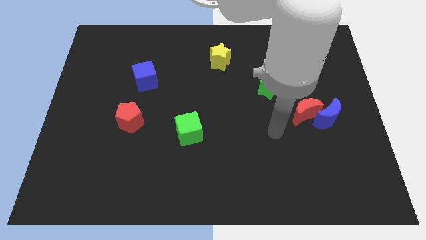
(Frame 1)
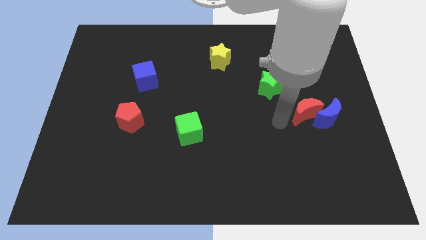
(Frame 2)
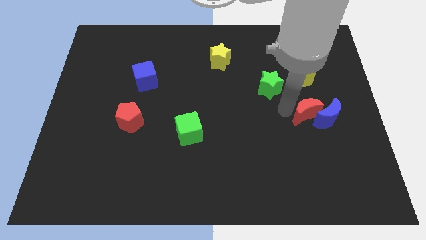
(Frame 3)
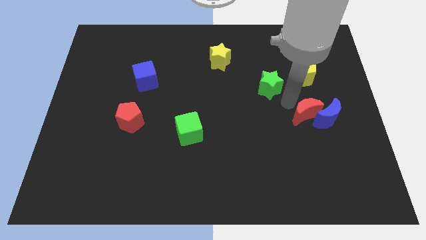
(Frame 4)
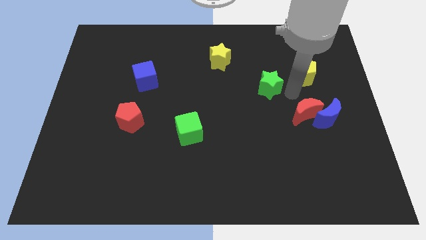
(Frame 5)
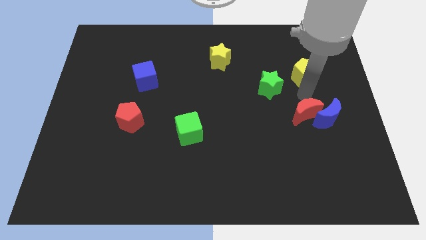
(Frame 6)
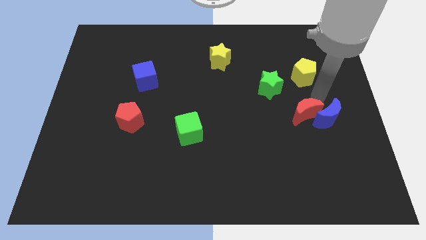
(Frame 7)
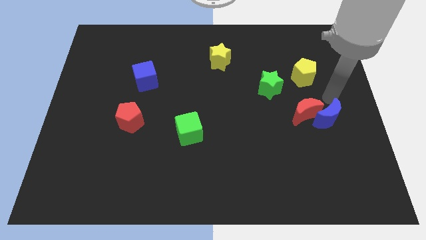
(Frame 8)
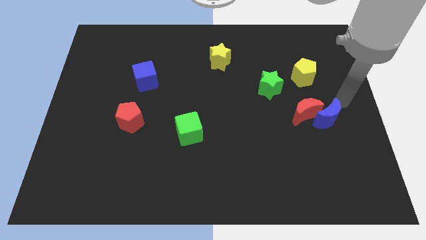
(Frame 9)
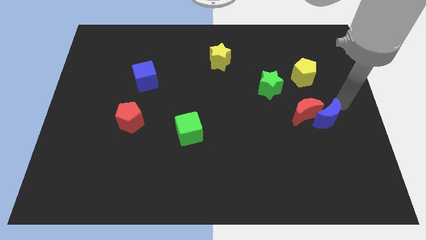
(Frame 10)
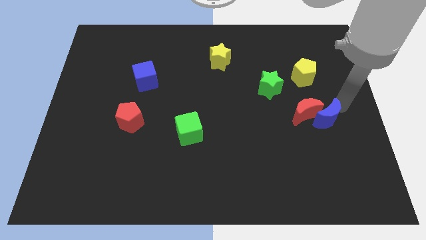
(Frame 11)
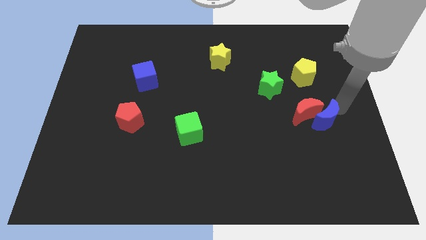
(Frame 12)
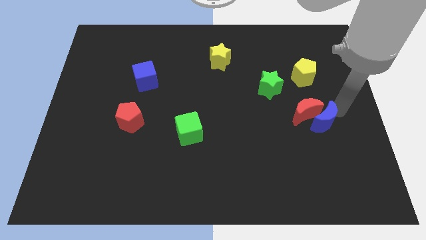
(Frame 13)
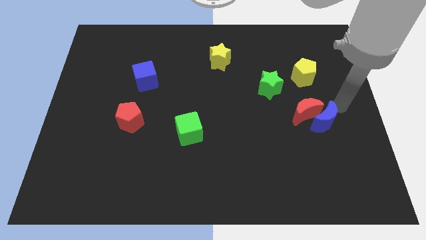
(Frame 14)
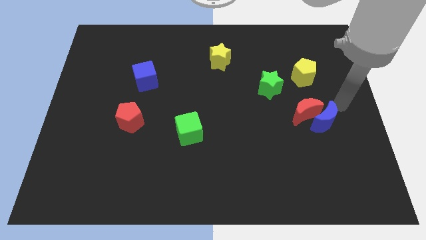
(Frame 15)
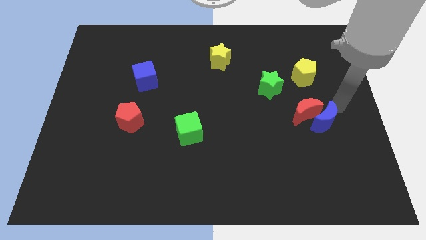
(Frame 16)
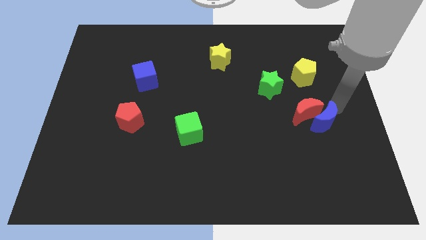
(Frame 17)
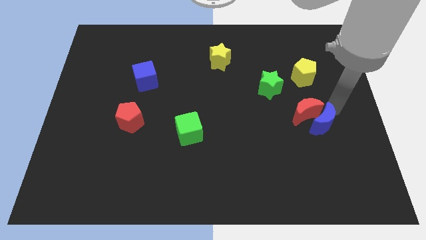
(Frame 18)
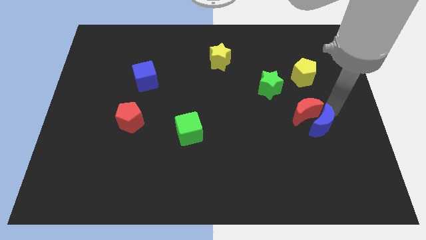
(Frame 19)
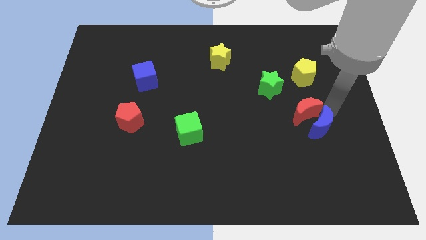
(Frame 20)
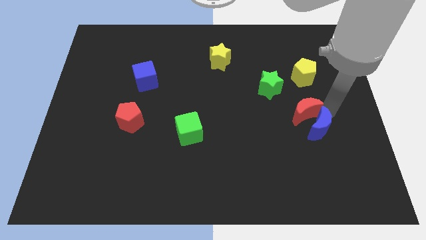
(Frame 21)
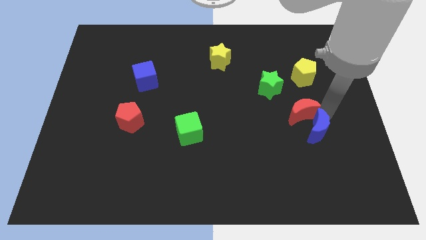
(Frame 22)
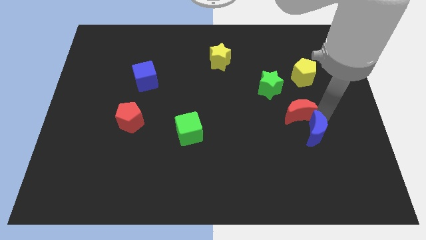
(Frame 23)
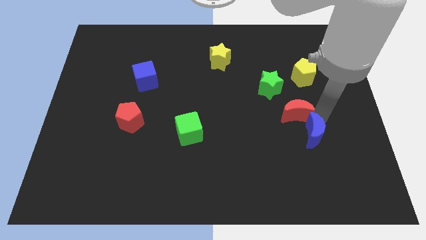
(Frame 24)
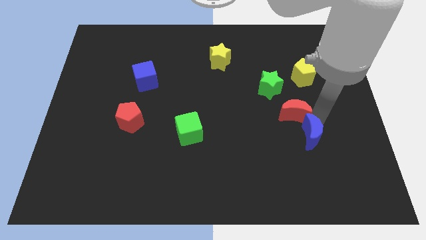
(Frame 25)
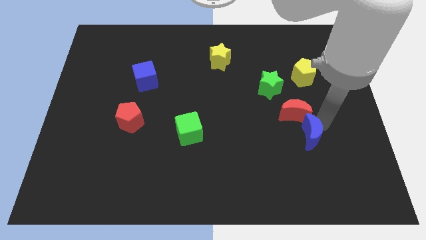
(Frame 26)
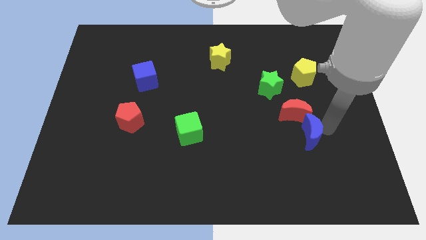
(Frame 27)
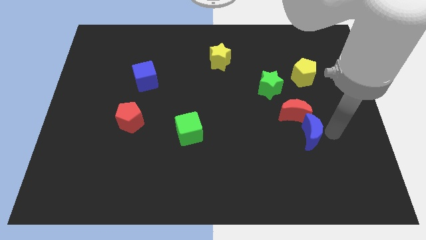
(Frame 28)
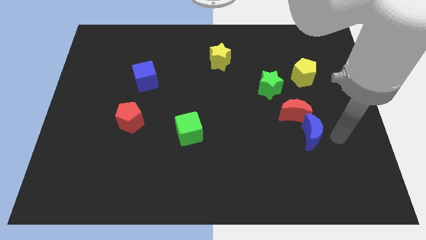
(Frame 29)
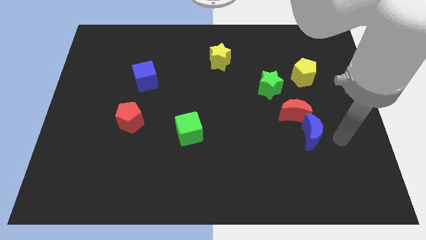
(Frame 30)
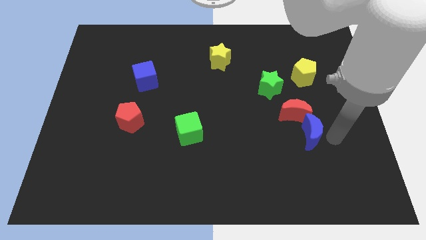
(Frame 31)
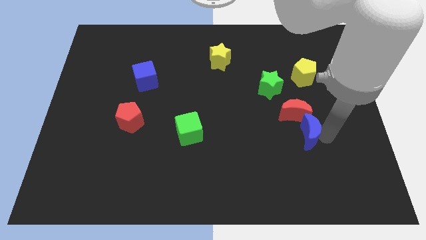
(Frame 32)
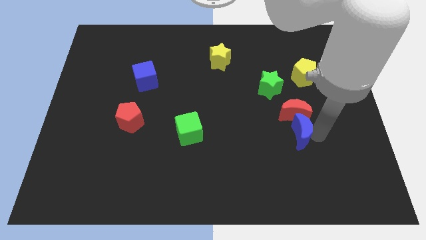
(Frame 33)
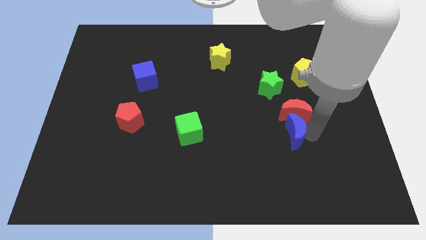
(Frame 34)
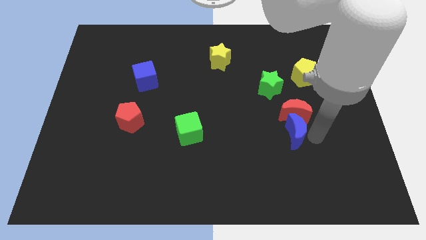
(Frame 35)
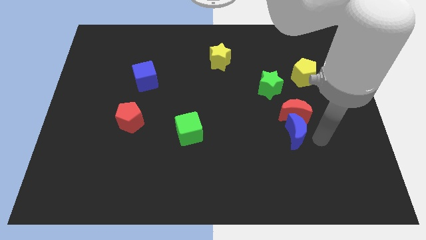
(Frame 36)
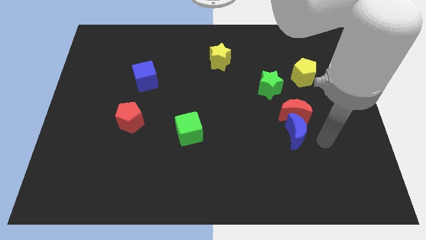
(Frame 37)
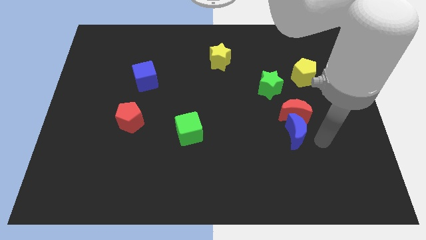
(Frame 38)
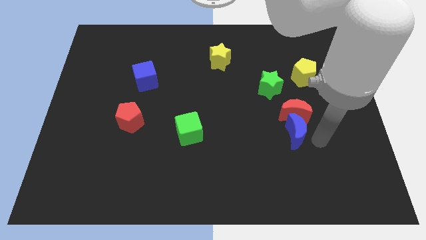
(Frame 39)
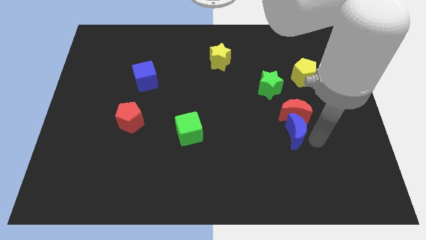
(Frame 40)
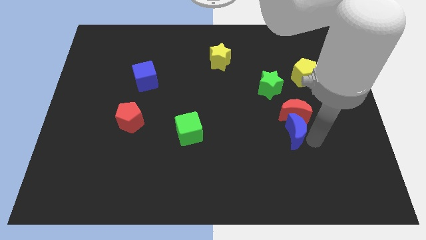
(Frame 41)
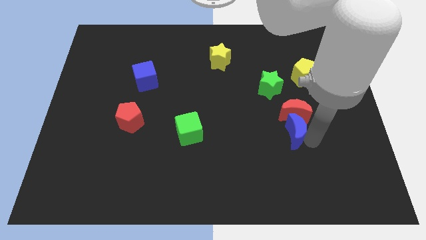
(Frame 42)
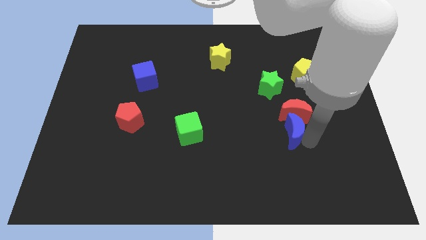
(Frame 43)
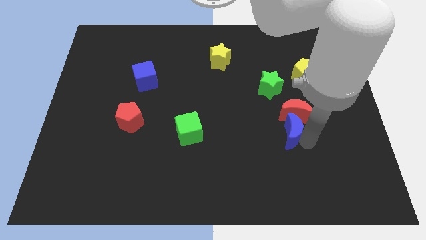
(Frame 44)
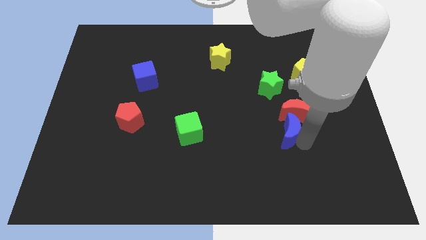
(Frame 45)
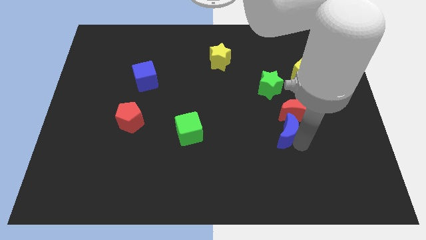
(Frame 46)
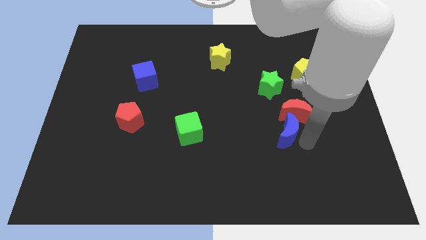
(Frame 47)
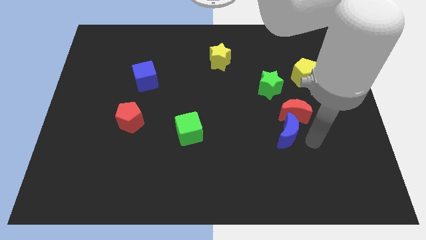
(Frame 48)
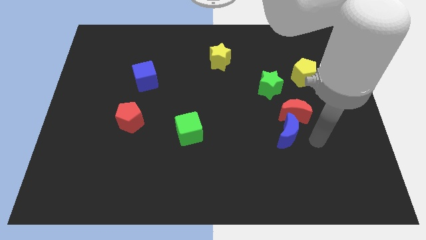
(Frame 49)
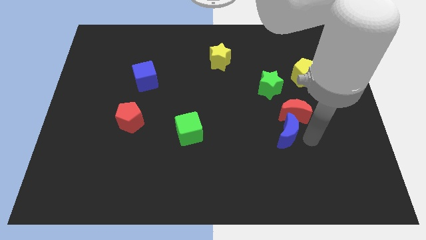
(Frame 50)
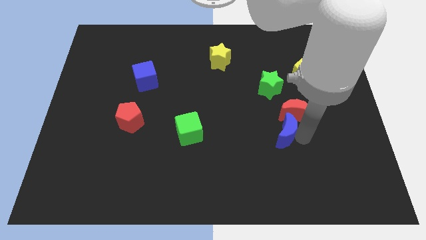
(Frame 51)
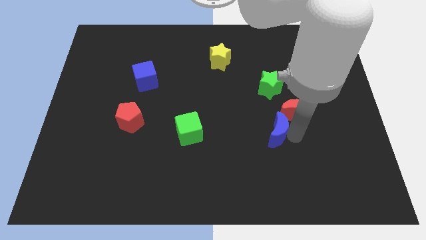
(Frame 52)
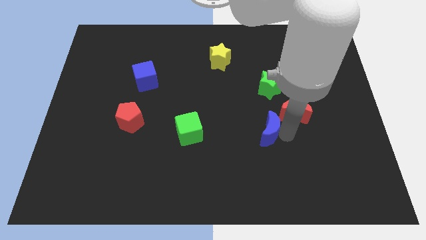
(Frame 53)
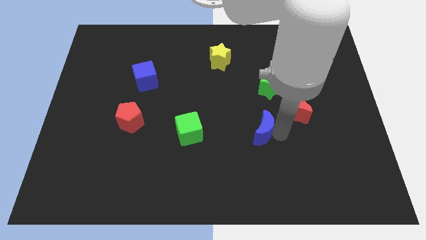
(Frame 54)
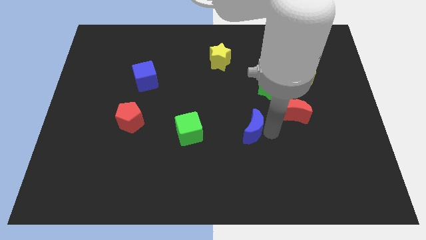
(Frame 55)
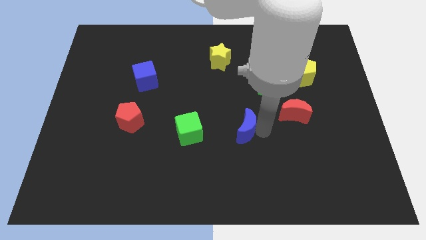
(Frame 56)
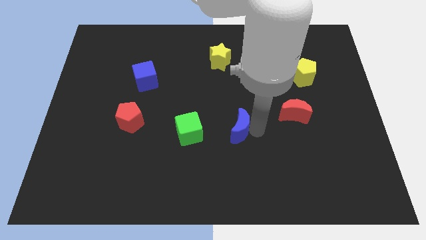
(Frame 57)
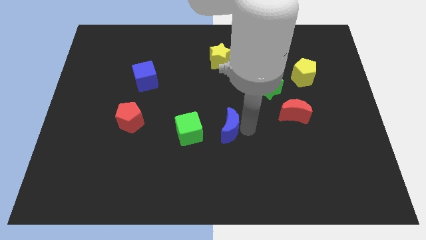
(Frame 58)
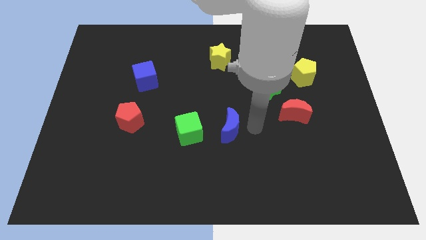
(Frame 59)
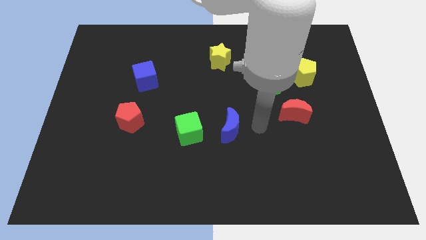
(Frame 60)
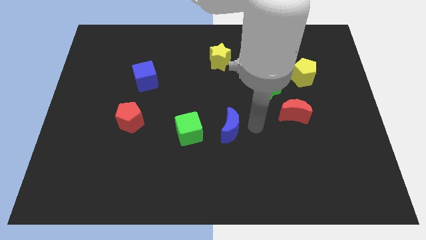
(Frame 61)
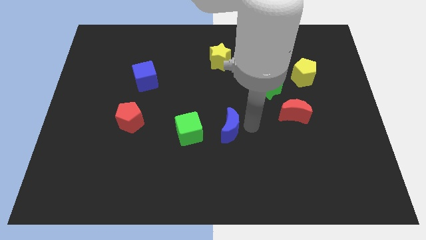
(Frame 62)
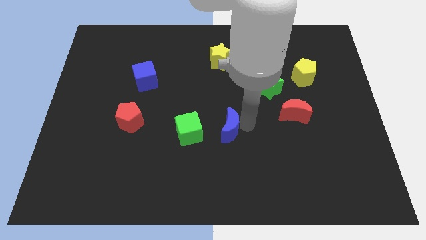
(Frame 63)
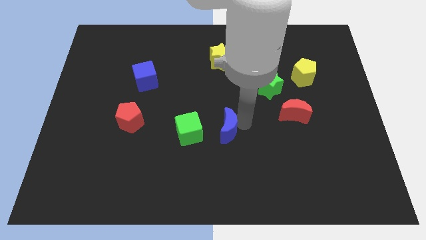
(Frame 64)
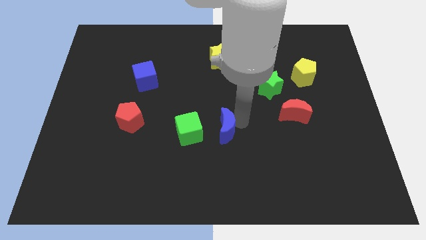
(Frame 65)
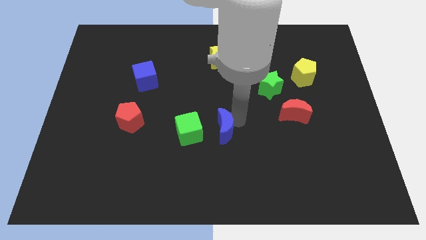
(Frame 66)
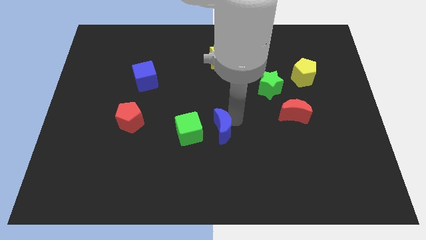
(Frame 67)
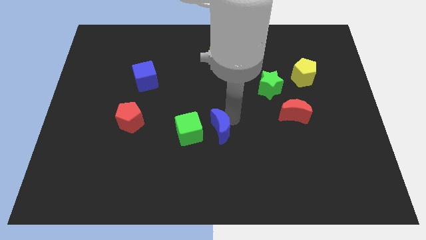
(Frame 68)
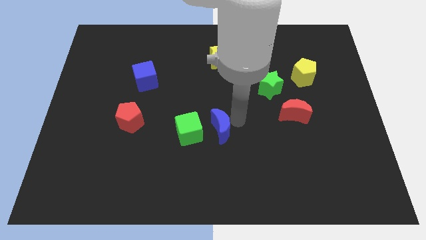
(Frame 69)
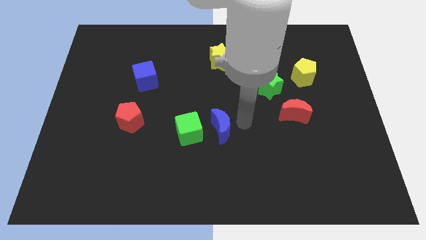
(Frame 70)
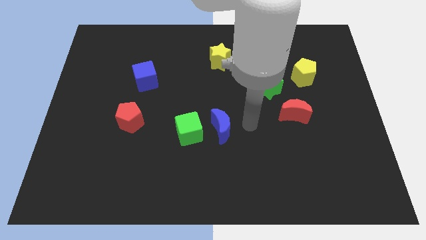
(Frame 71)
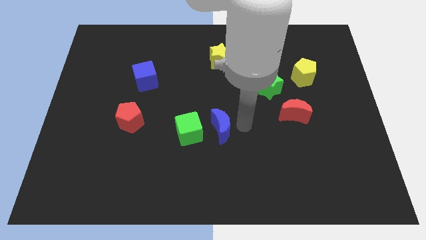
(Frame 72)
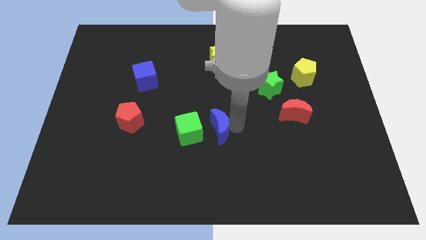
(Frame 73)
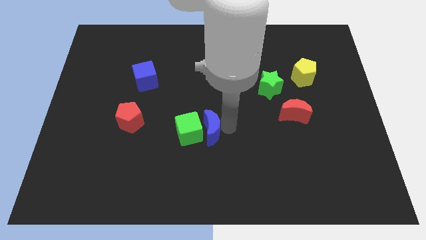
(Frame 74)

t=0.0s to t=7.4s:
put the blue moon close to the green cube
